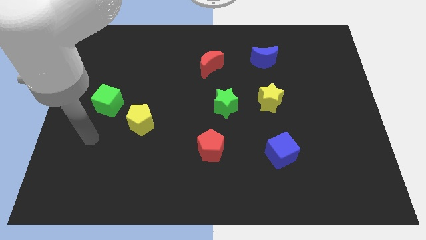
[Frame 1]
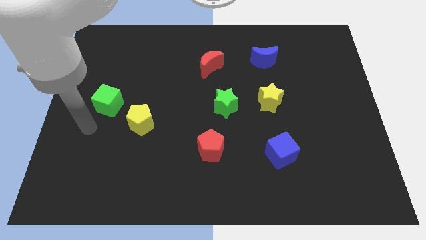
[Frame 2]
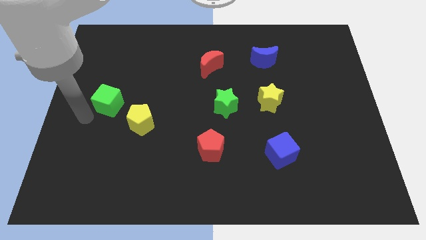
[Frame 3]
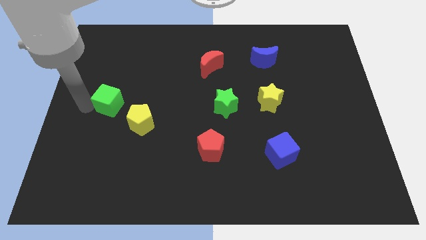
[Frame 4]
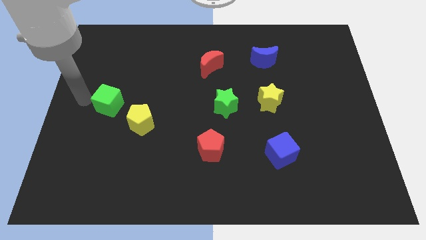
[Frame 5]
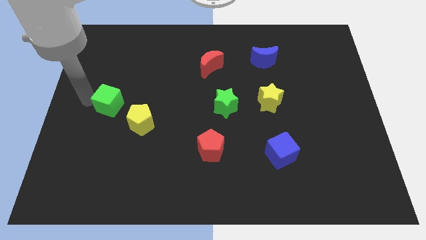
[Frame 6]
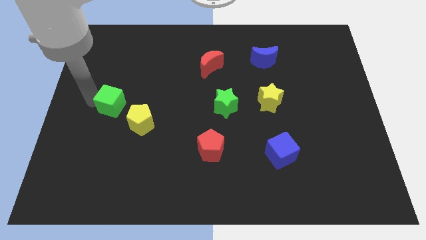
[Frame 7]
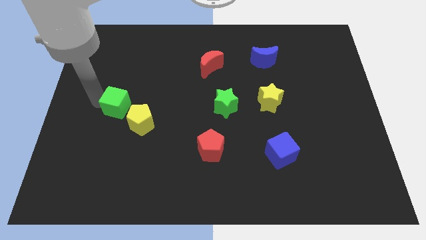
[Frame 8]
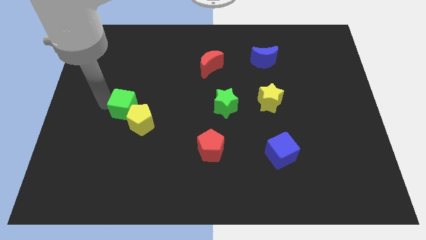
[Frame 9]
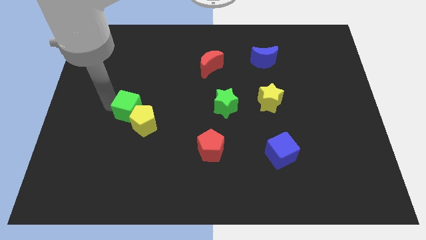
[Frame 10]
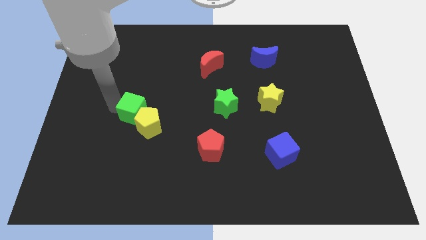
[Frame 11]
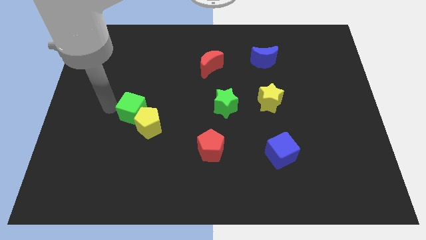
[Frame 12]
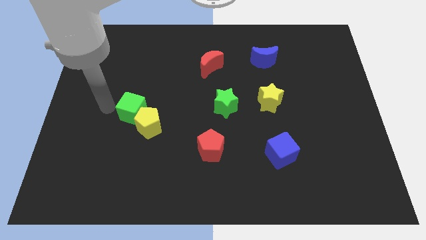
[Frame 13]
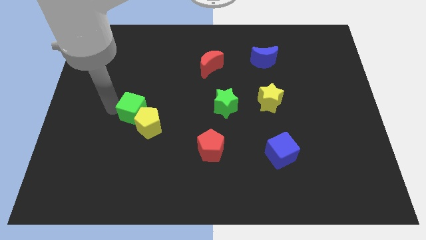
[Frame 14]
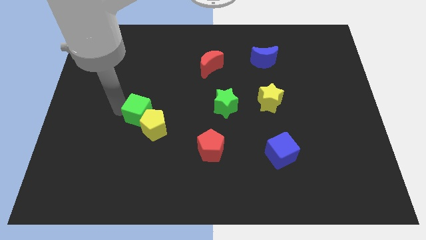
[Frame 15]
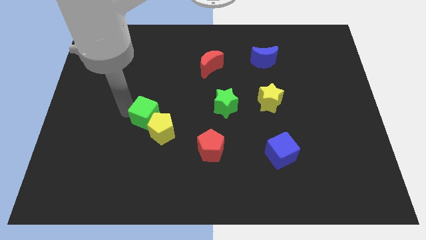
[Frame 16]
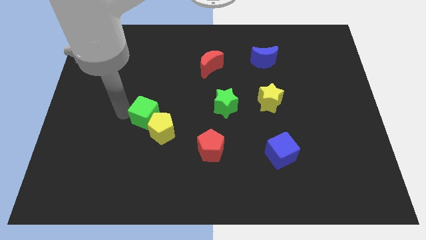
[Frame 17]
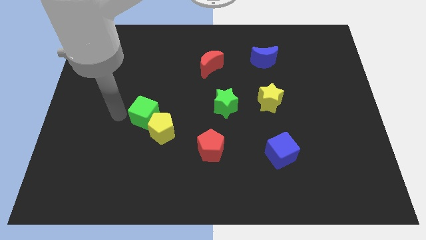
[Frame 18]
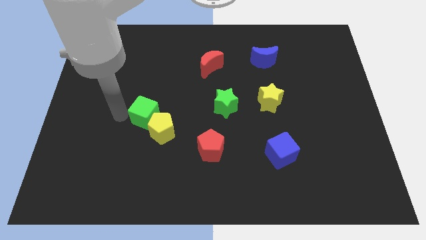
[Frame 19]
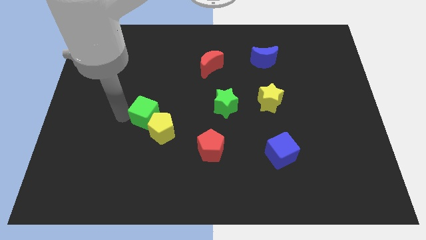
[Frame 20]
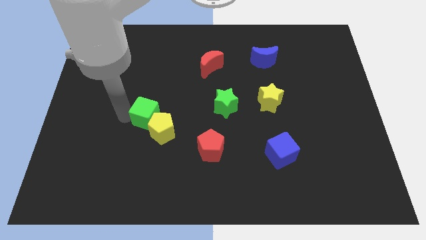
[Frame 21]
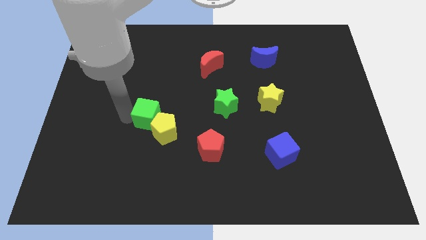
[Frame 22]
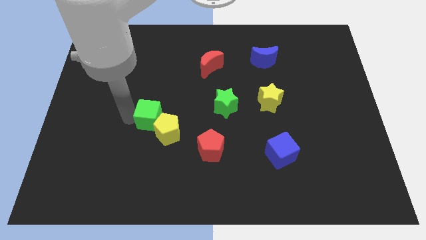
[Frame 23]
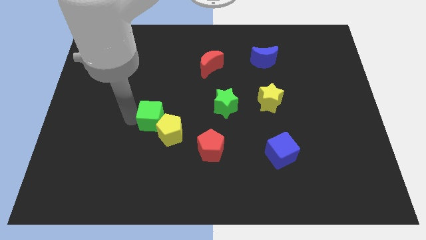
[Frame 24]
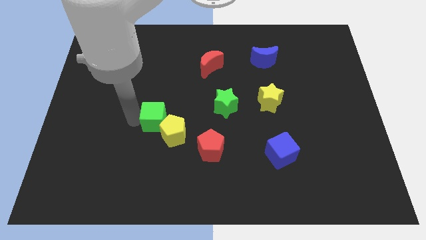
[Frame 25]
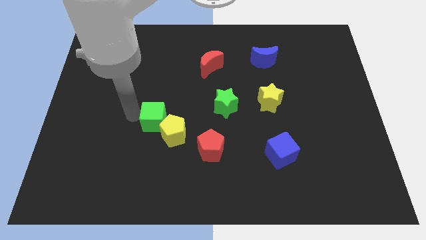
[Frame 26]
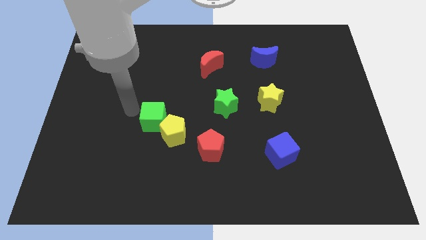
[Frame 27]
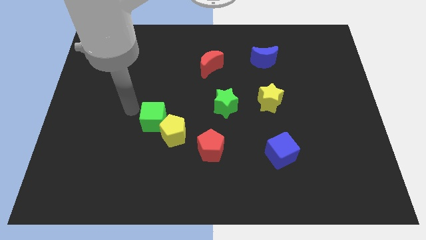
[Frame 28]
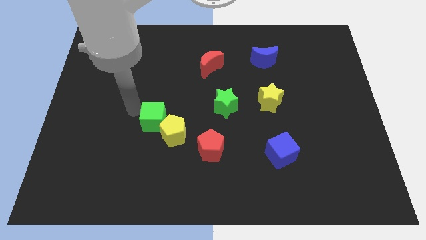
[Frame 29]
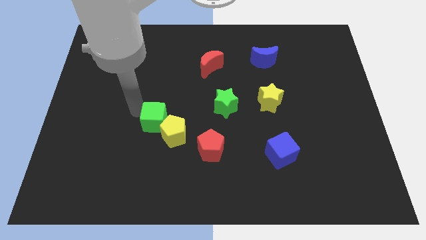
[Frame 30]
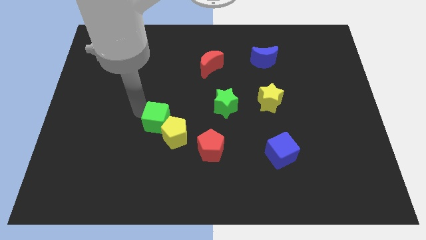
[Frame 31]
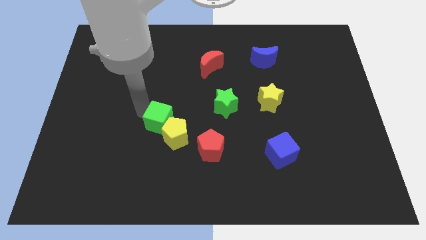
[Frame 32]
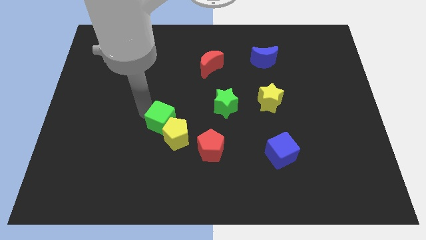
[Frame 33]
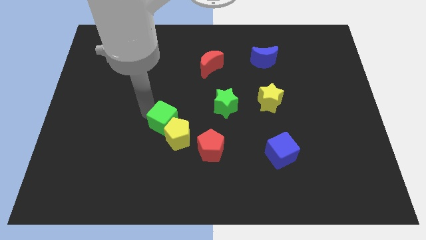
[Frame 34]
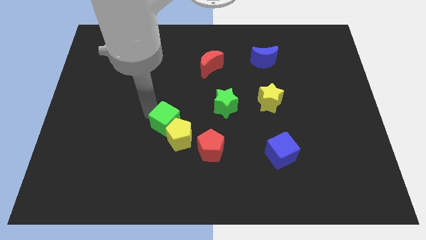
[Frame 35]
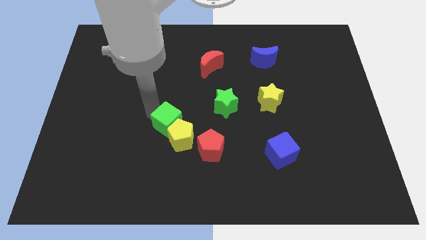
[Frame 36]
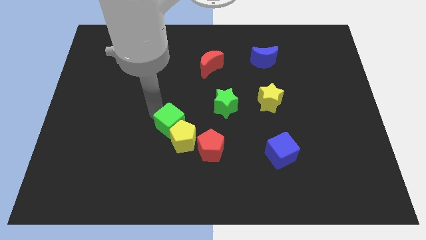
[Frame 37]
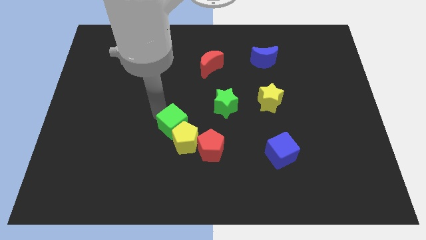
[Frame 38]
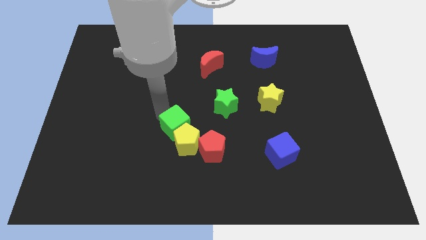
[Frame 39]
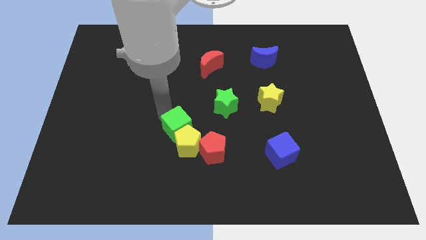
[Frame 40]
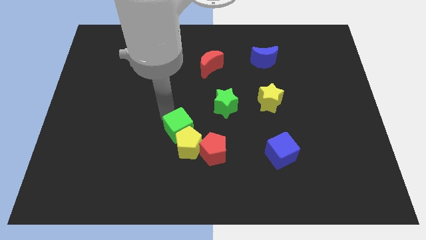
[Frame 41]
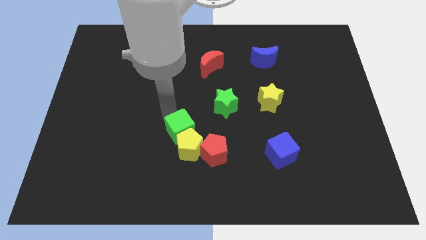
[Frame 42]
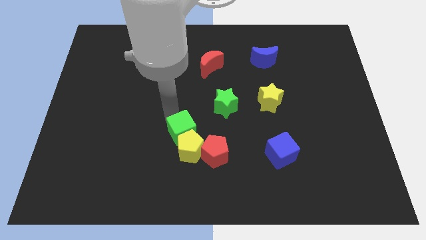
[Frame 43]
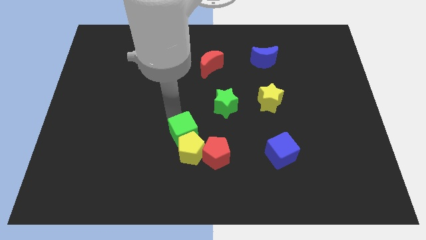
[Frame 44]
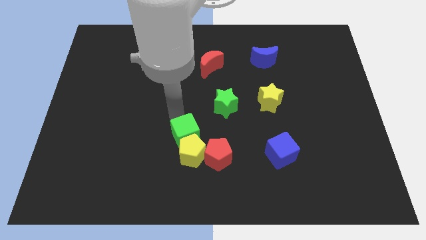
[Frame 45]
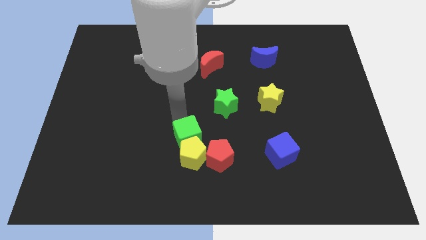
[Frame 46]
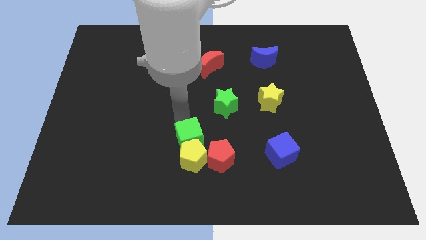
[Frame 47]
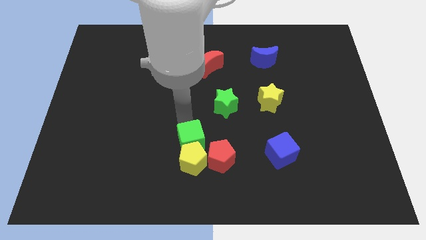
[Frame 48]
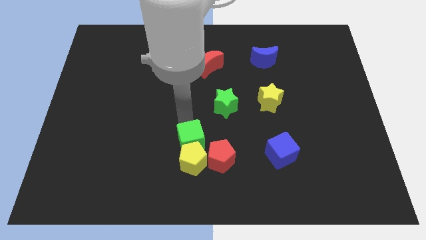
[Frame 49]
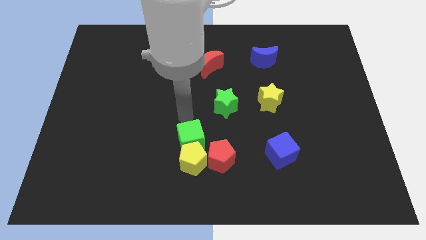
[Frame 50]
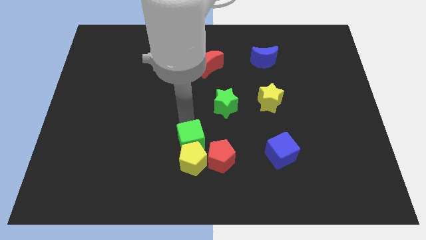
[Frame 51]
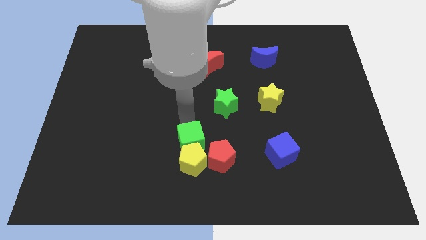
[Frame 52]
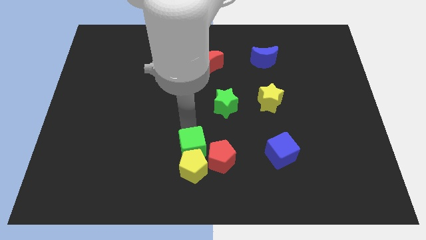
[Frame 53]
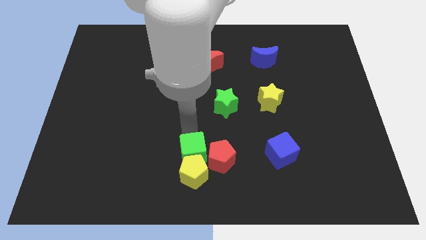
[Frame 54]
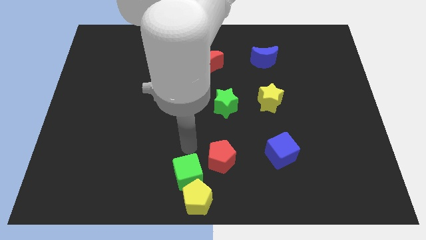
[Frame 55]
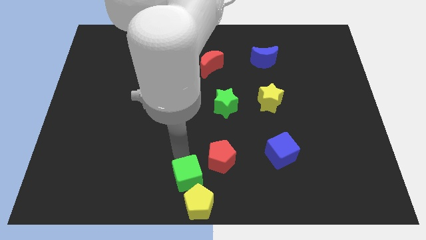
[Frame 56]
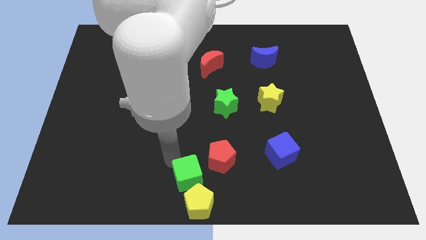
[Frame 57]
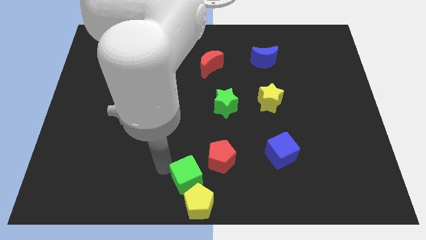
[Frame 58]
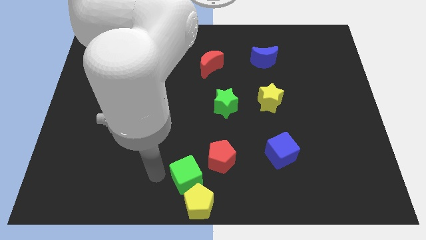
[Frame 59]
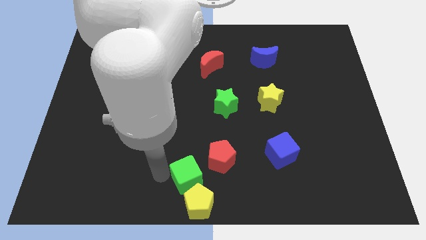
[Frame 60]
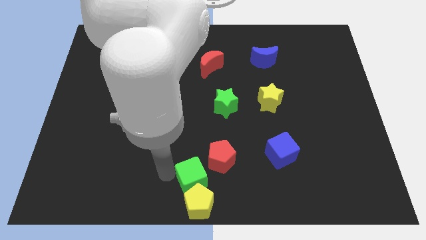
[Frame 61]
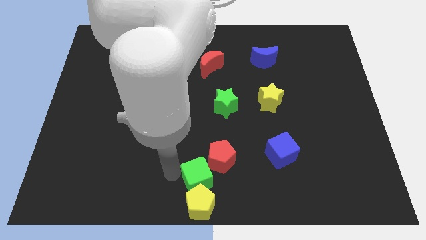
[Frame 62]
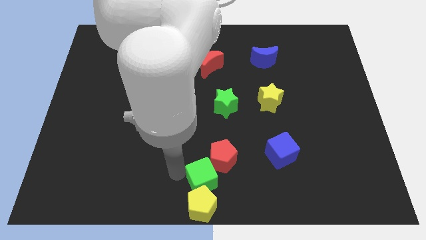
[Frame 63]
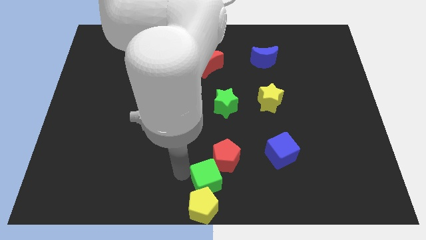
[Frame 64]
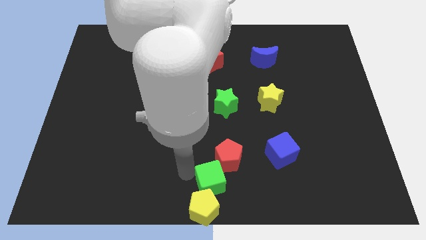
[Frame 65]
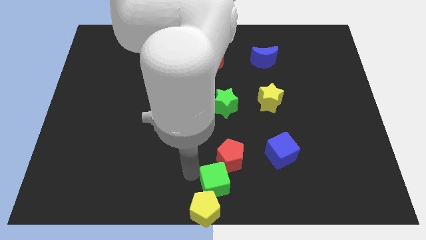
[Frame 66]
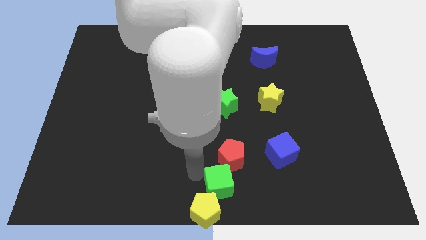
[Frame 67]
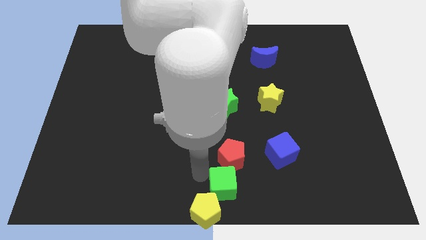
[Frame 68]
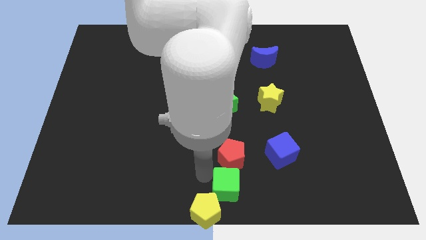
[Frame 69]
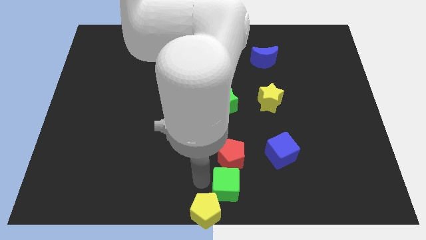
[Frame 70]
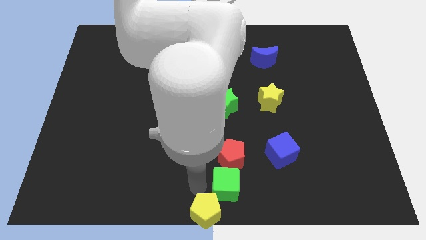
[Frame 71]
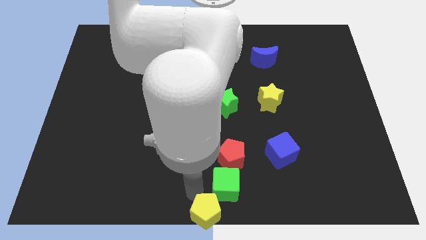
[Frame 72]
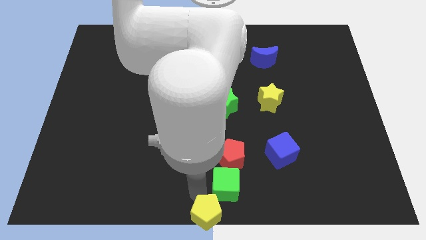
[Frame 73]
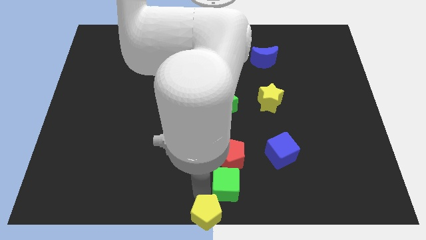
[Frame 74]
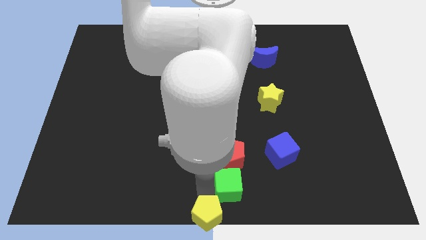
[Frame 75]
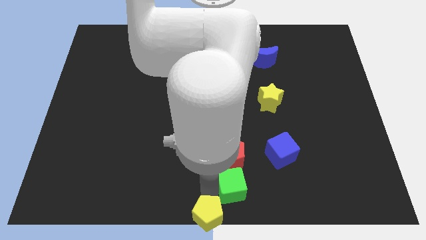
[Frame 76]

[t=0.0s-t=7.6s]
put the green cube diagonally down and to the right of the red pentagon
